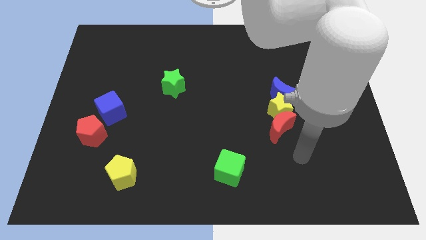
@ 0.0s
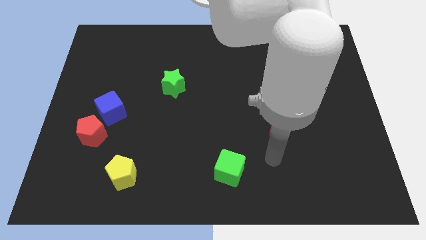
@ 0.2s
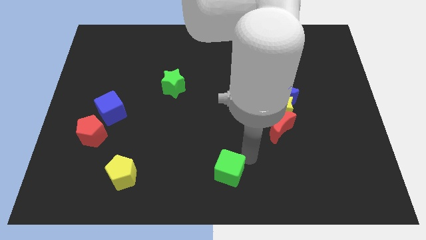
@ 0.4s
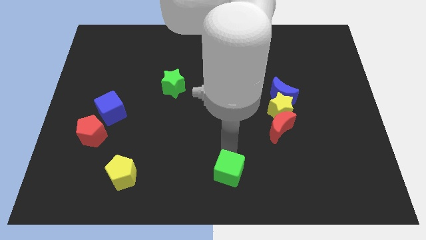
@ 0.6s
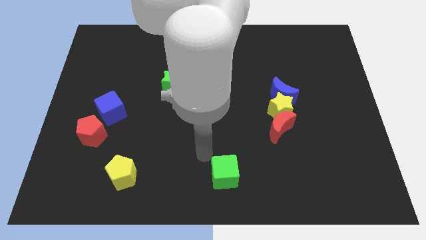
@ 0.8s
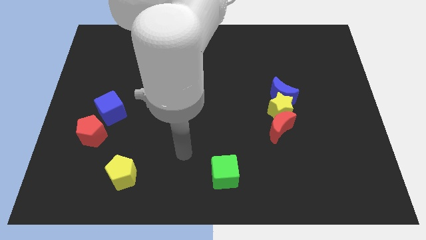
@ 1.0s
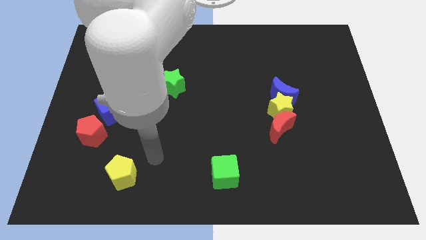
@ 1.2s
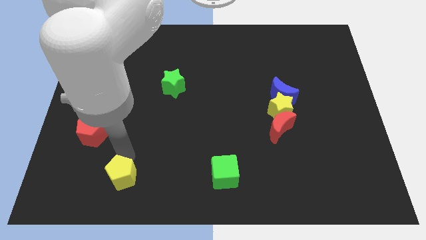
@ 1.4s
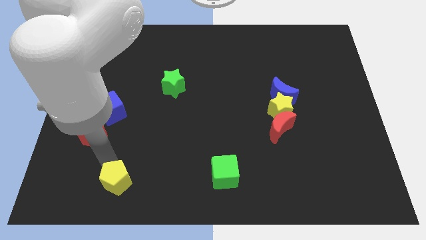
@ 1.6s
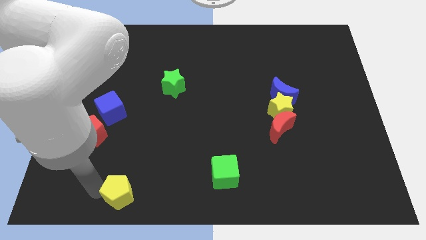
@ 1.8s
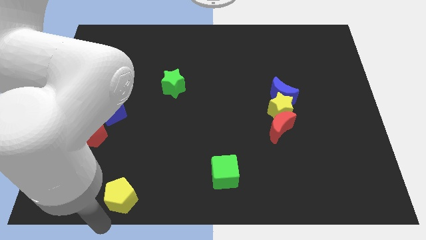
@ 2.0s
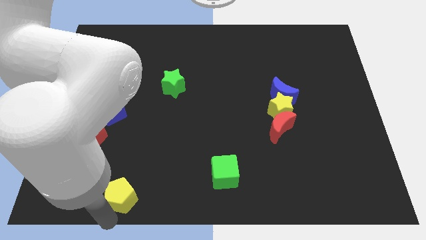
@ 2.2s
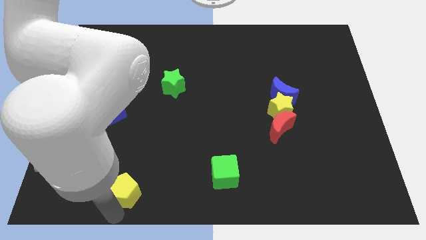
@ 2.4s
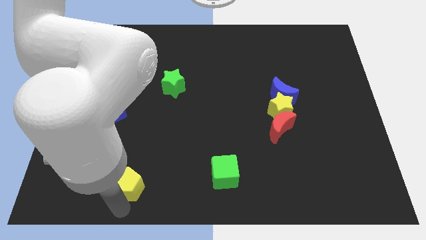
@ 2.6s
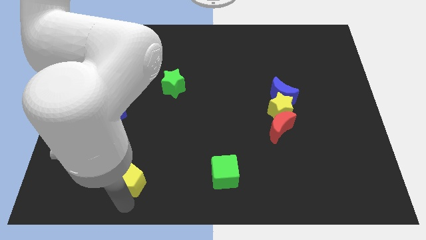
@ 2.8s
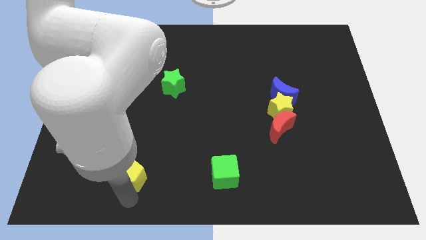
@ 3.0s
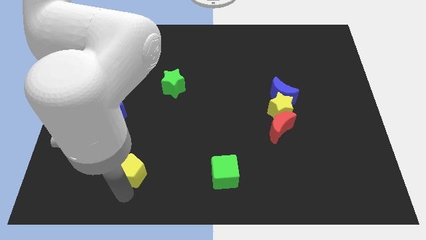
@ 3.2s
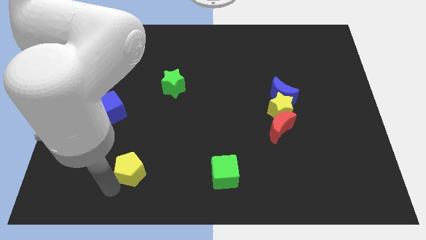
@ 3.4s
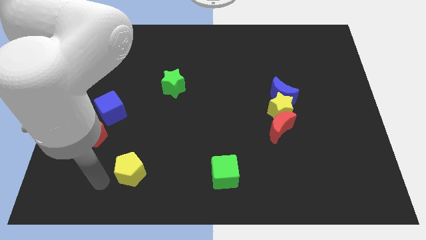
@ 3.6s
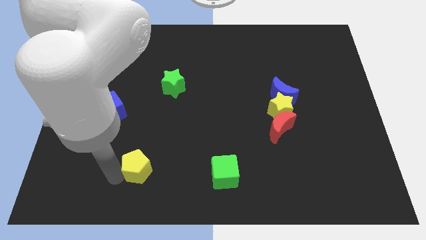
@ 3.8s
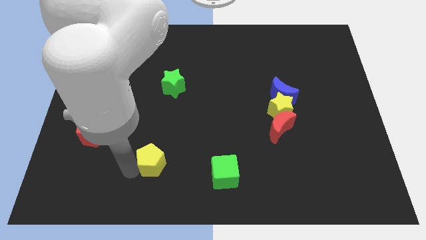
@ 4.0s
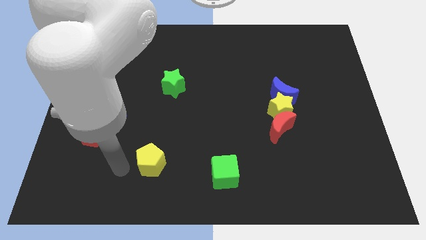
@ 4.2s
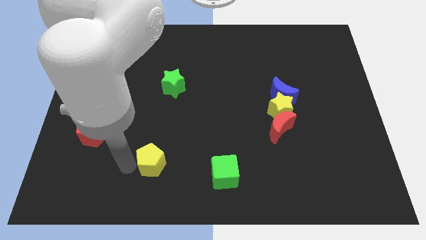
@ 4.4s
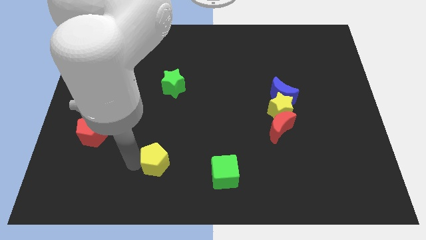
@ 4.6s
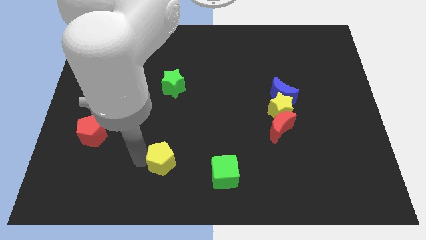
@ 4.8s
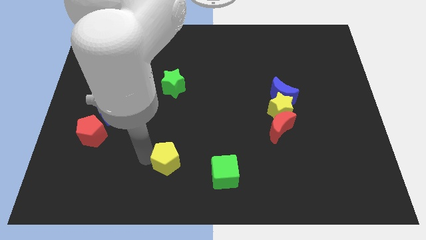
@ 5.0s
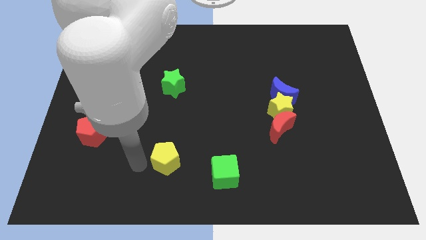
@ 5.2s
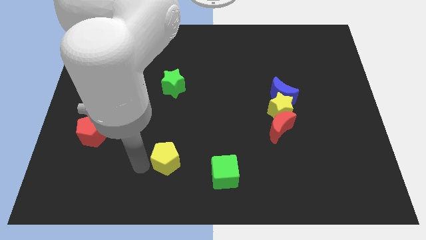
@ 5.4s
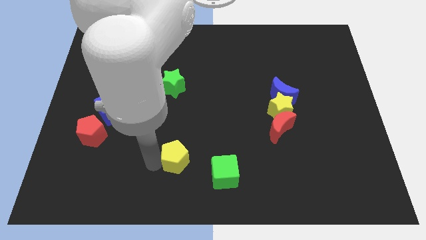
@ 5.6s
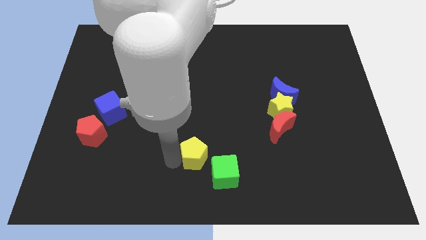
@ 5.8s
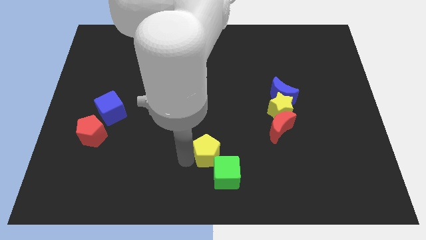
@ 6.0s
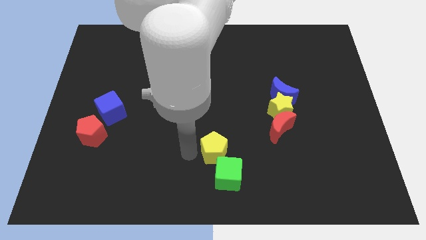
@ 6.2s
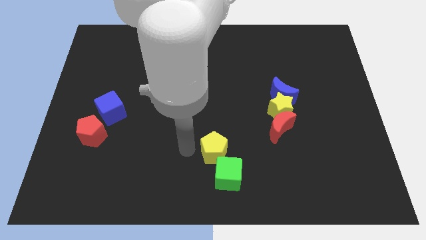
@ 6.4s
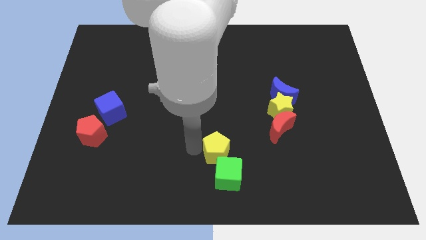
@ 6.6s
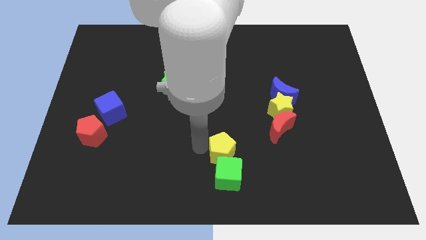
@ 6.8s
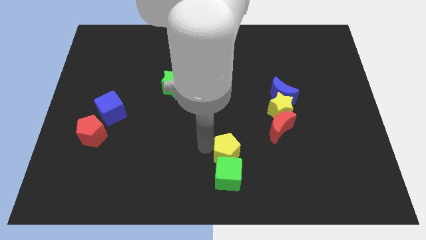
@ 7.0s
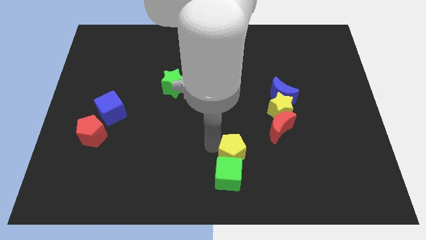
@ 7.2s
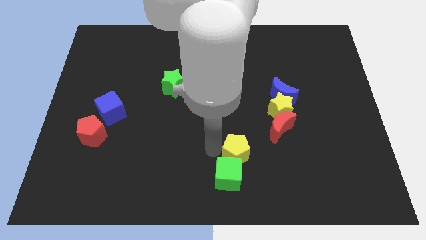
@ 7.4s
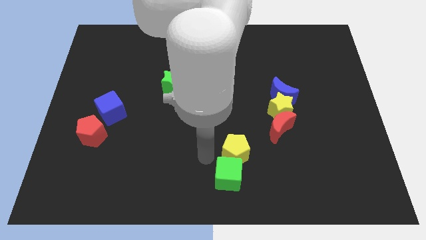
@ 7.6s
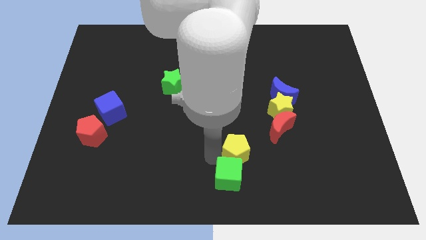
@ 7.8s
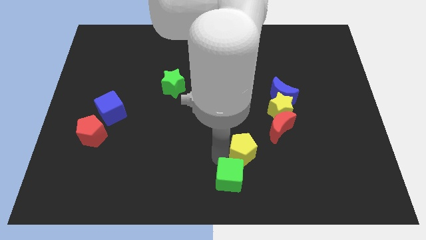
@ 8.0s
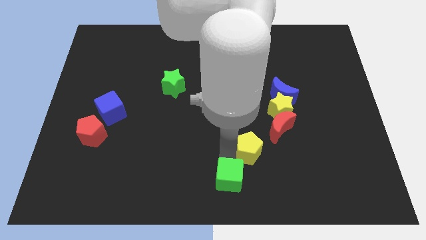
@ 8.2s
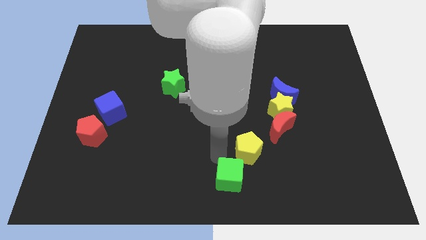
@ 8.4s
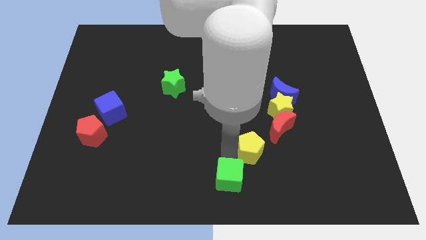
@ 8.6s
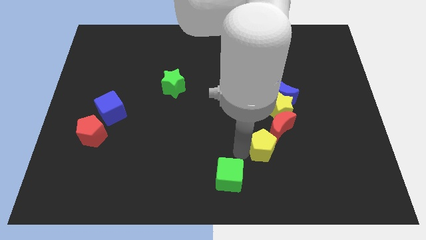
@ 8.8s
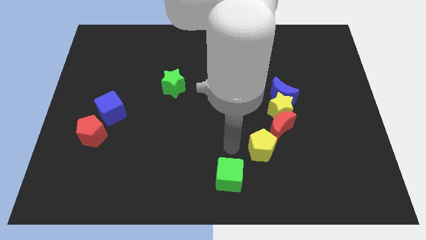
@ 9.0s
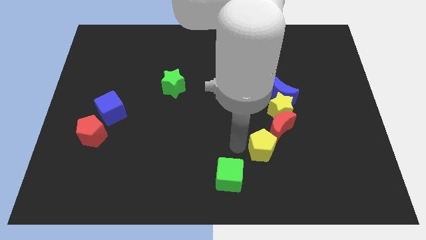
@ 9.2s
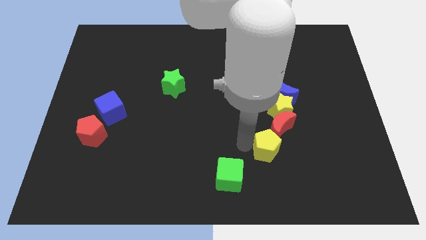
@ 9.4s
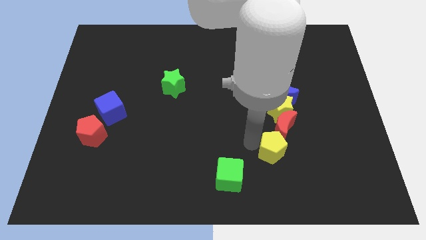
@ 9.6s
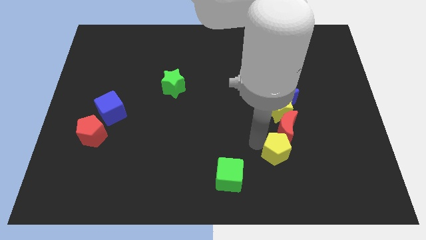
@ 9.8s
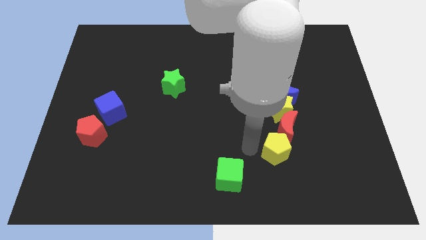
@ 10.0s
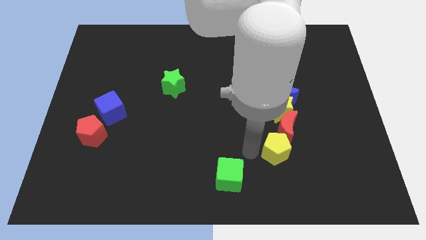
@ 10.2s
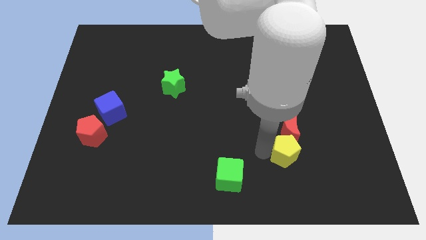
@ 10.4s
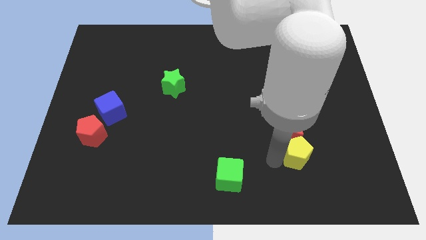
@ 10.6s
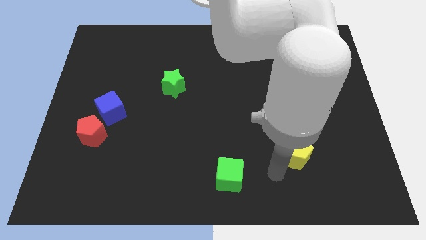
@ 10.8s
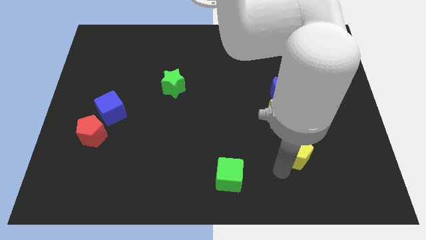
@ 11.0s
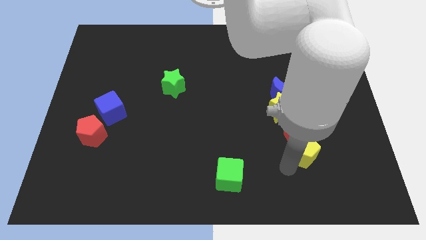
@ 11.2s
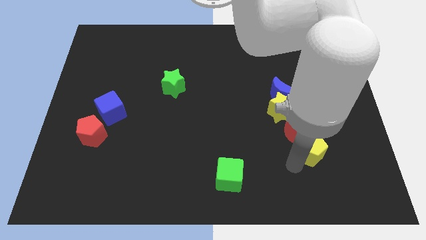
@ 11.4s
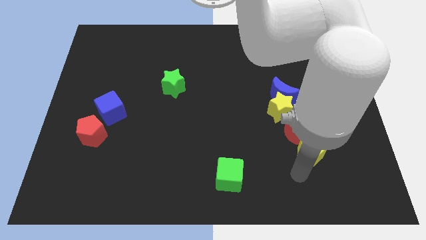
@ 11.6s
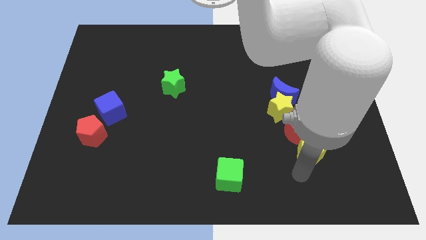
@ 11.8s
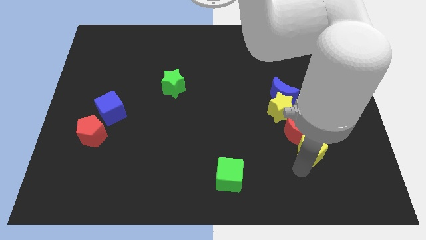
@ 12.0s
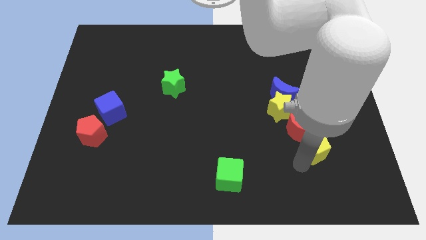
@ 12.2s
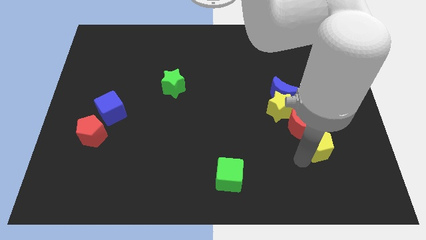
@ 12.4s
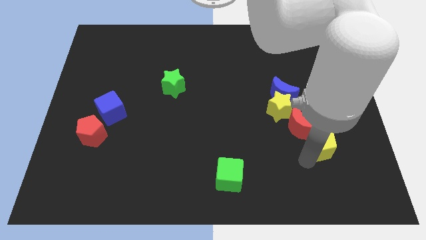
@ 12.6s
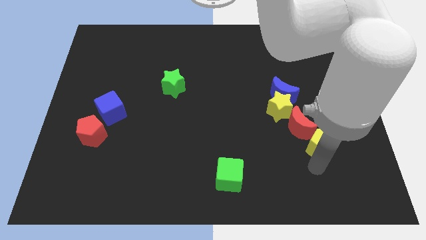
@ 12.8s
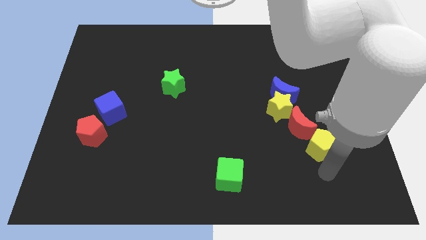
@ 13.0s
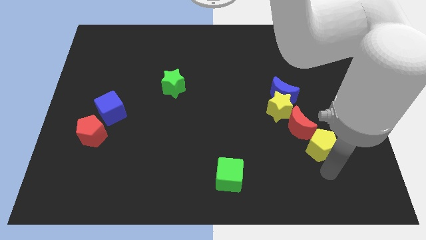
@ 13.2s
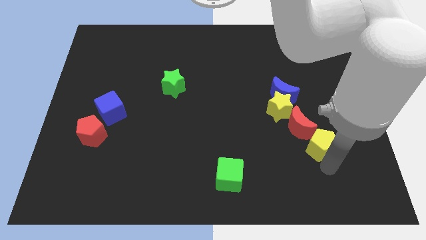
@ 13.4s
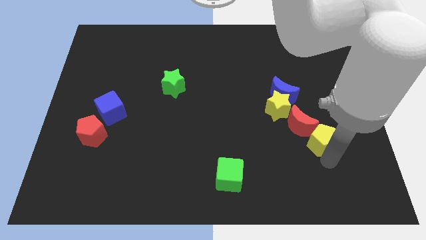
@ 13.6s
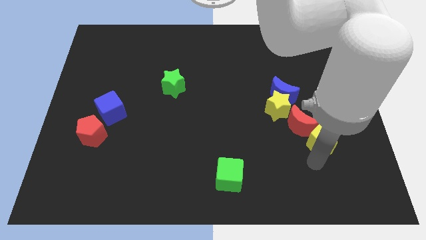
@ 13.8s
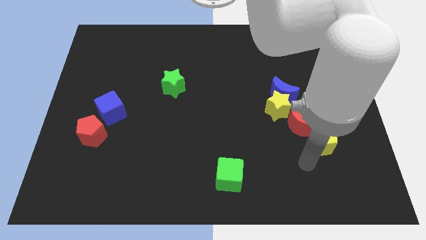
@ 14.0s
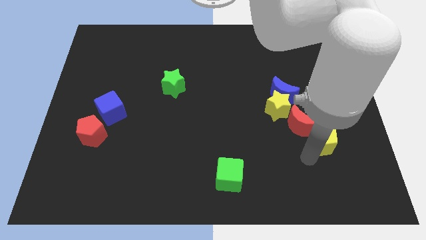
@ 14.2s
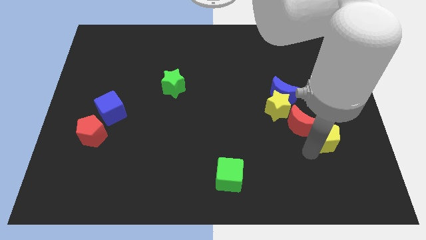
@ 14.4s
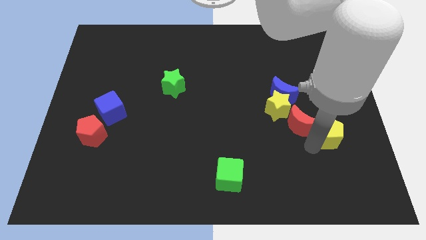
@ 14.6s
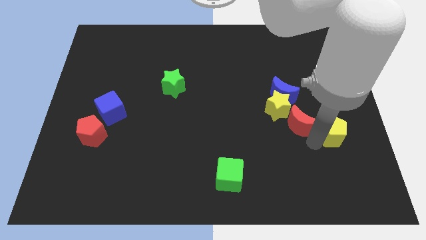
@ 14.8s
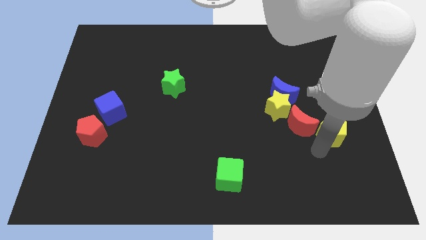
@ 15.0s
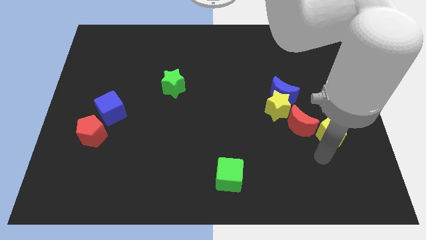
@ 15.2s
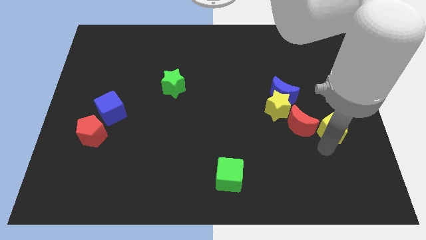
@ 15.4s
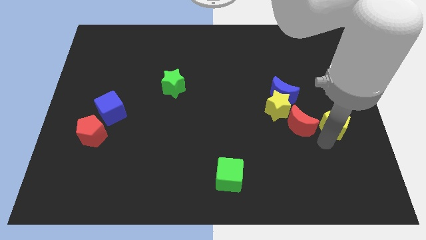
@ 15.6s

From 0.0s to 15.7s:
move the yellow pentagon to the right side of the board
